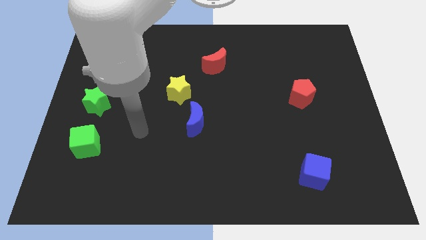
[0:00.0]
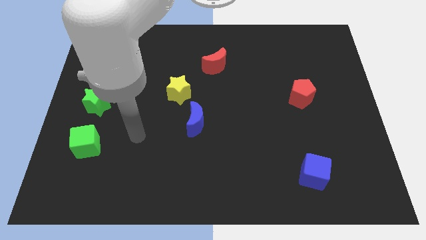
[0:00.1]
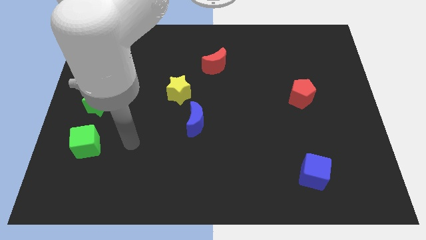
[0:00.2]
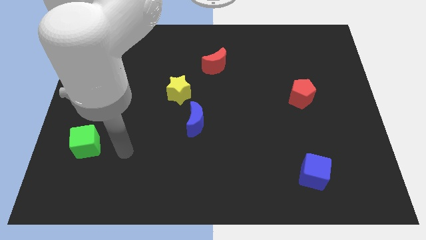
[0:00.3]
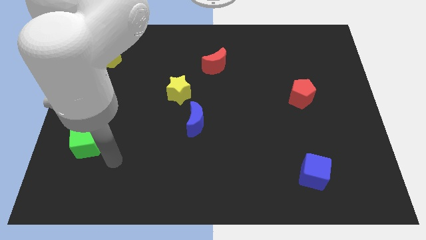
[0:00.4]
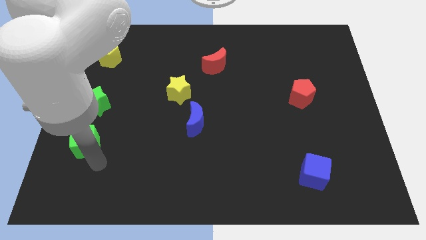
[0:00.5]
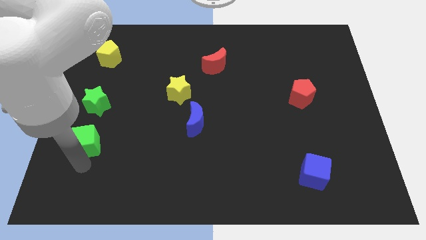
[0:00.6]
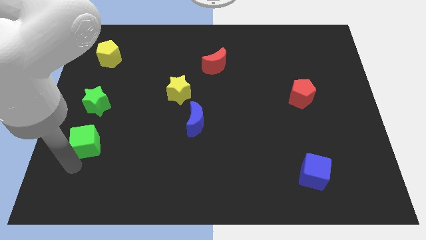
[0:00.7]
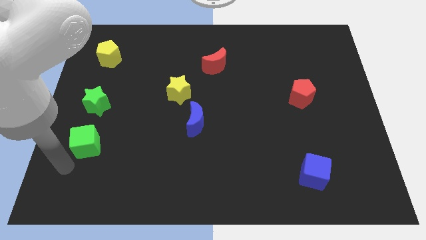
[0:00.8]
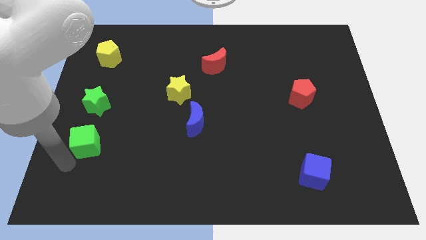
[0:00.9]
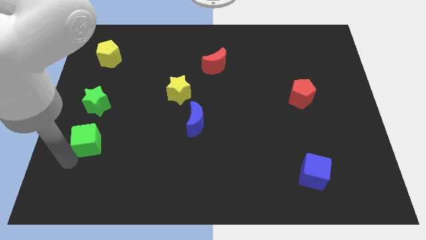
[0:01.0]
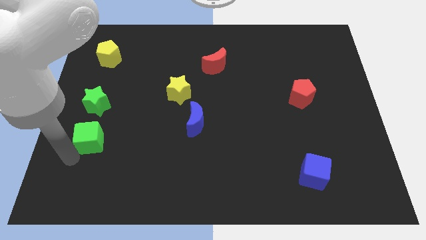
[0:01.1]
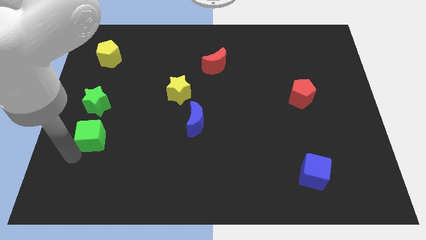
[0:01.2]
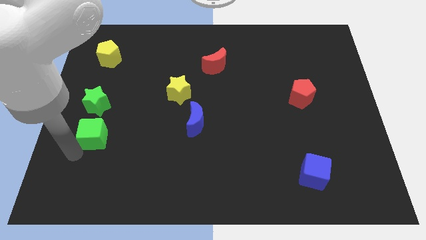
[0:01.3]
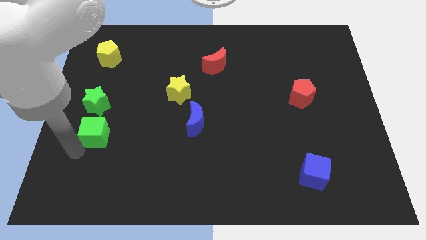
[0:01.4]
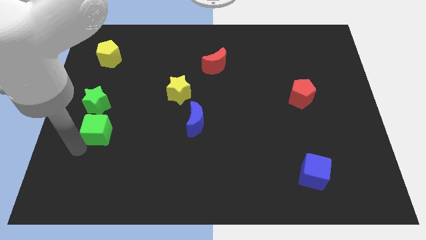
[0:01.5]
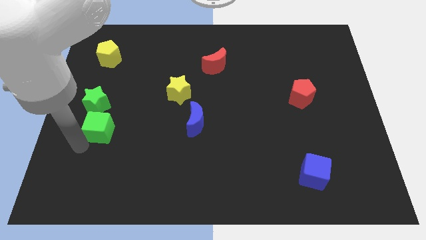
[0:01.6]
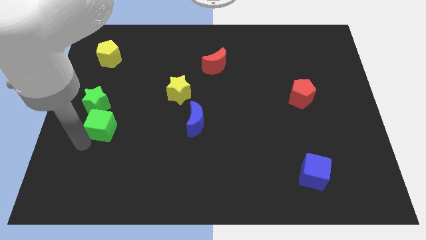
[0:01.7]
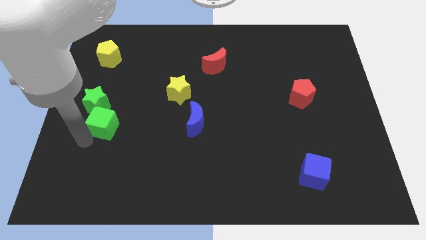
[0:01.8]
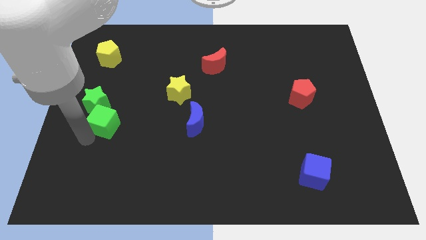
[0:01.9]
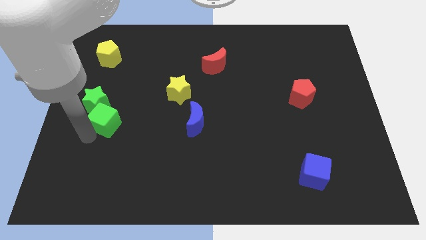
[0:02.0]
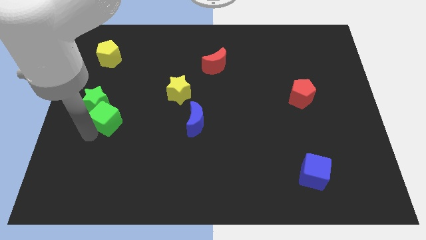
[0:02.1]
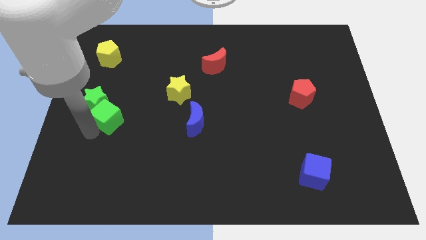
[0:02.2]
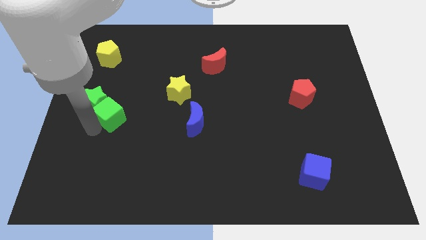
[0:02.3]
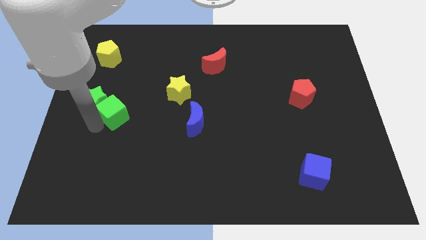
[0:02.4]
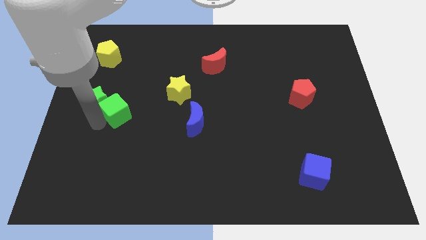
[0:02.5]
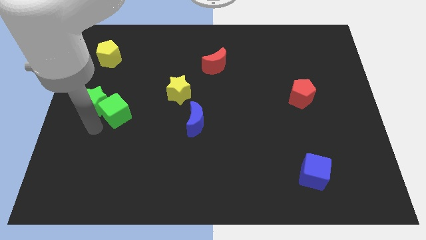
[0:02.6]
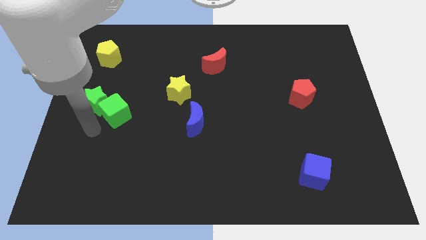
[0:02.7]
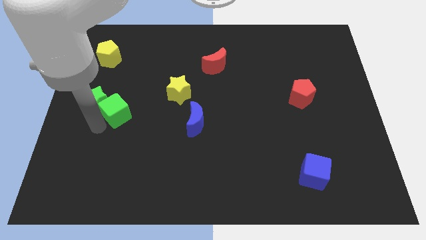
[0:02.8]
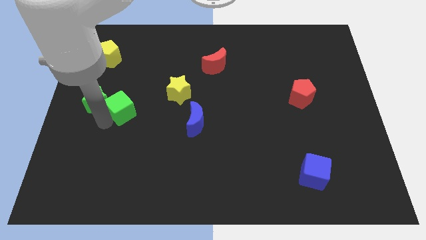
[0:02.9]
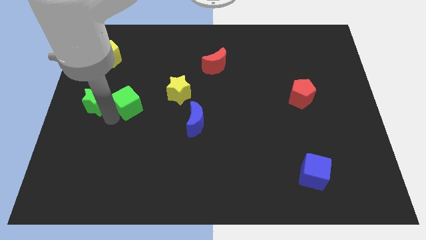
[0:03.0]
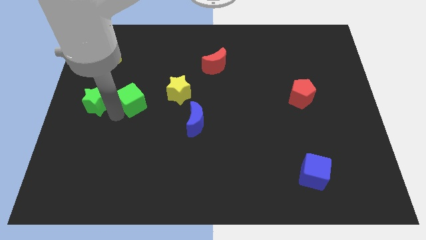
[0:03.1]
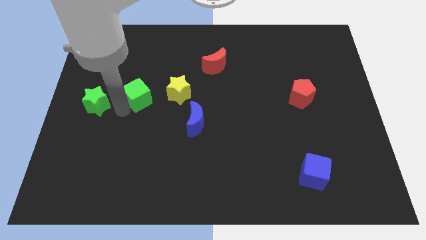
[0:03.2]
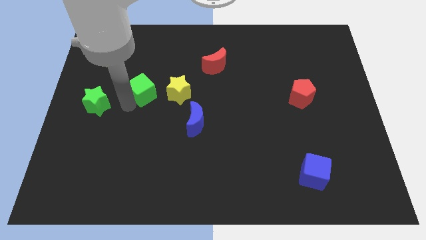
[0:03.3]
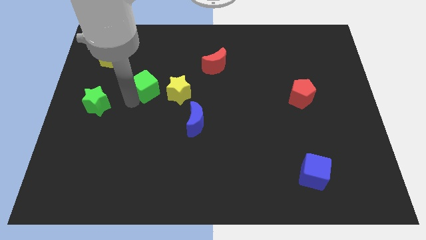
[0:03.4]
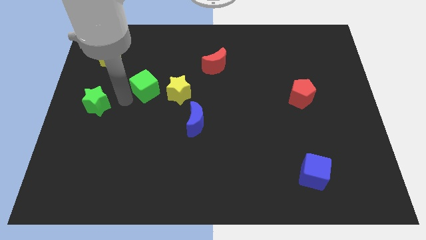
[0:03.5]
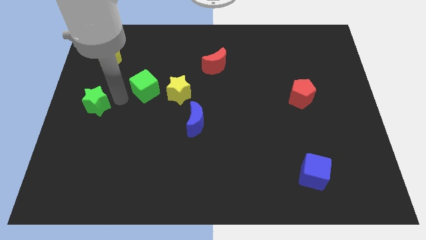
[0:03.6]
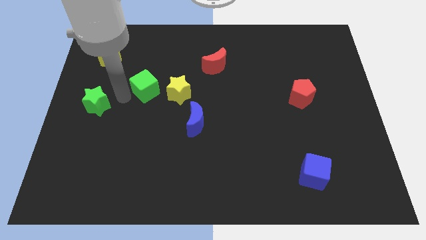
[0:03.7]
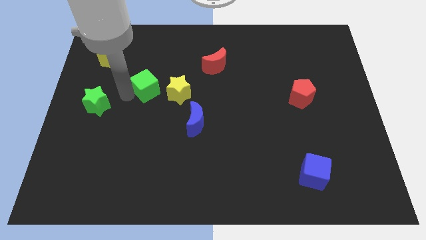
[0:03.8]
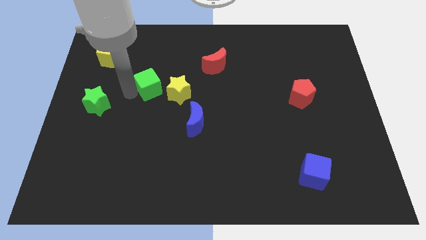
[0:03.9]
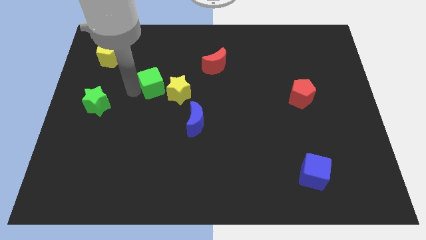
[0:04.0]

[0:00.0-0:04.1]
slide the green cube up and then to the right

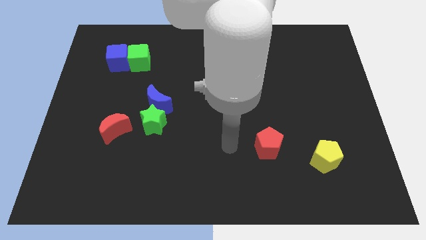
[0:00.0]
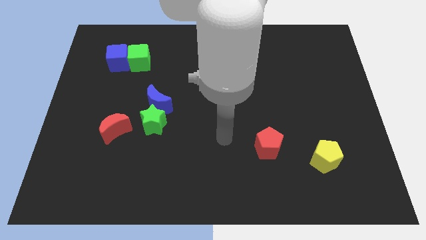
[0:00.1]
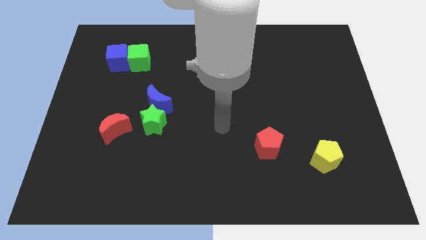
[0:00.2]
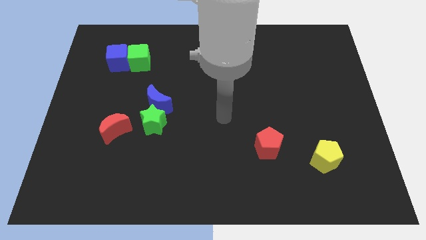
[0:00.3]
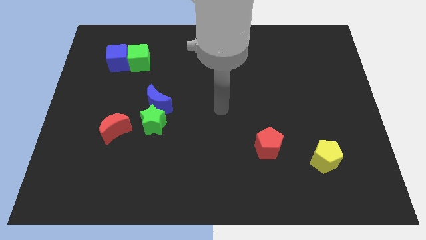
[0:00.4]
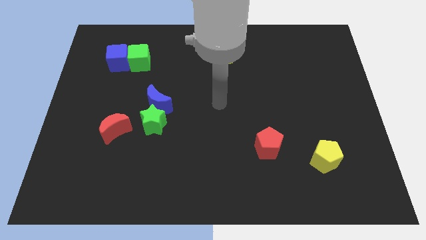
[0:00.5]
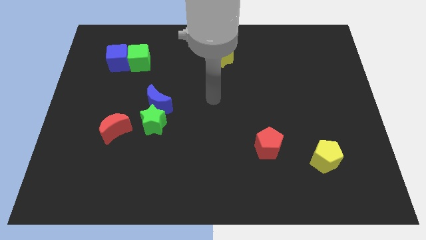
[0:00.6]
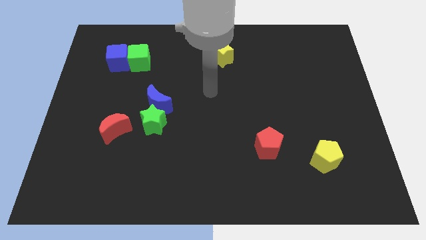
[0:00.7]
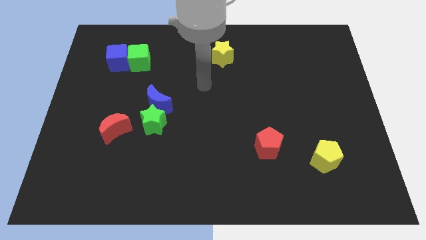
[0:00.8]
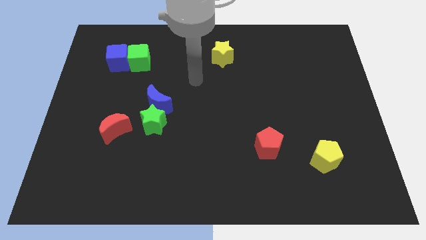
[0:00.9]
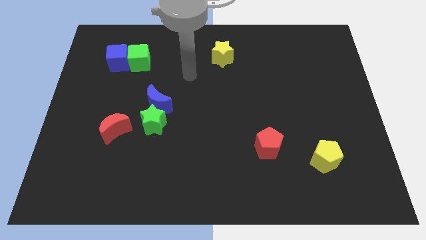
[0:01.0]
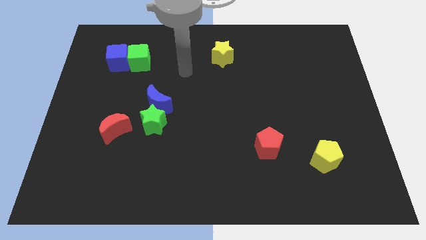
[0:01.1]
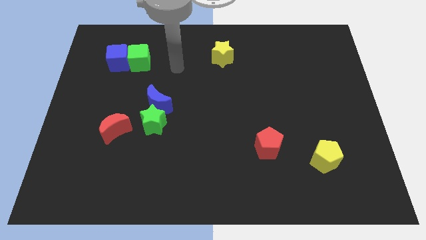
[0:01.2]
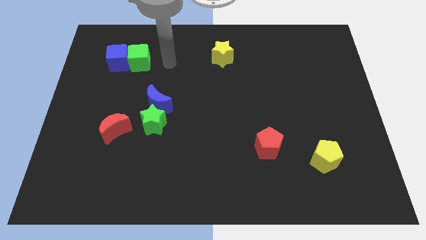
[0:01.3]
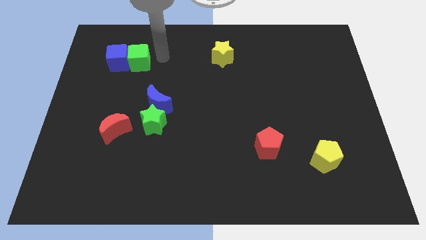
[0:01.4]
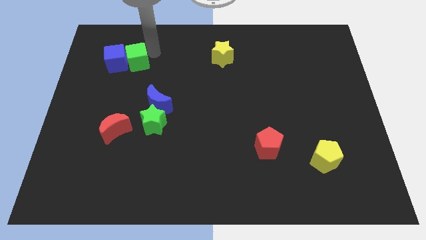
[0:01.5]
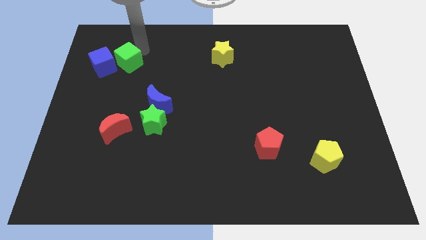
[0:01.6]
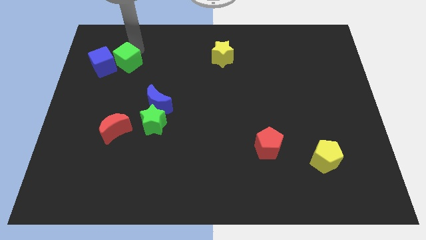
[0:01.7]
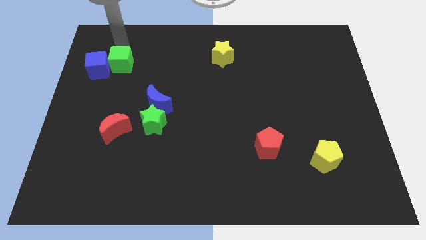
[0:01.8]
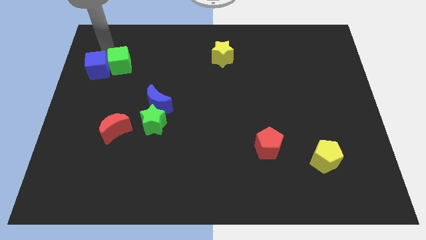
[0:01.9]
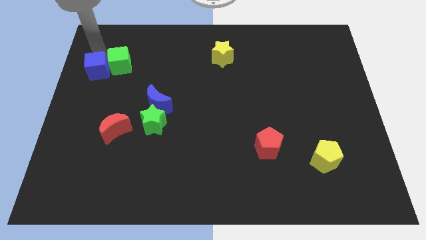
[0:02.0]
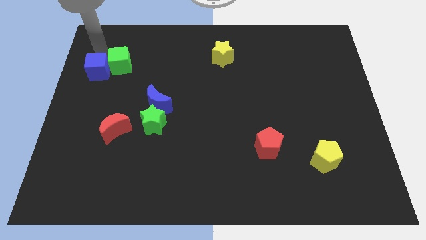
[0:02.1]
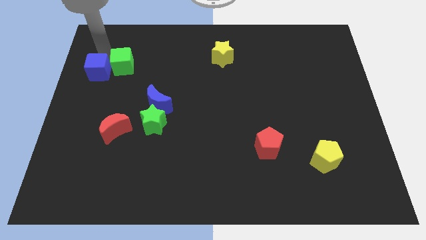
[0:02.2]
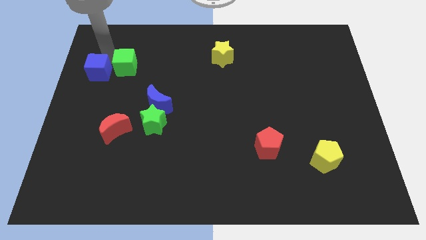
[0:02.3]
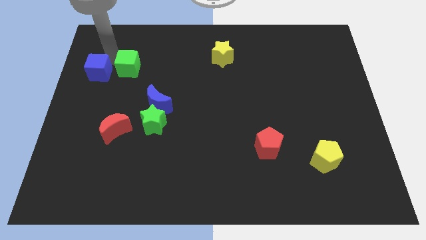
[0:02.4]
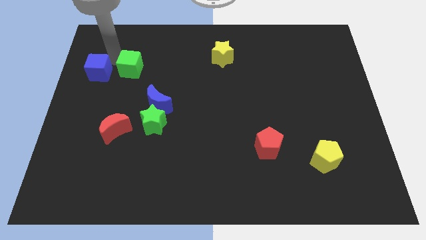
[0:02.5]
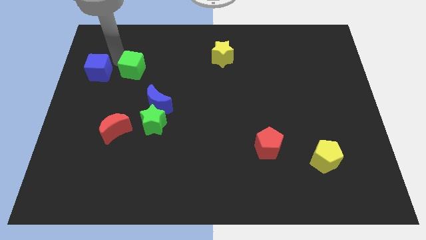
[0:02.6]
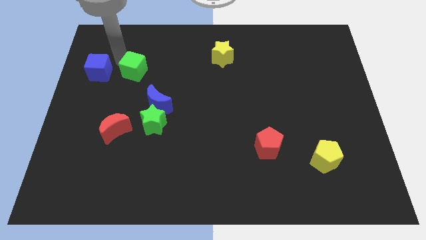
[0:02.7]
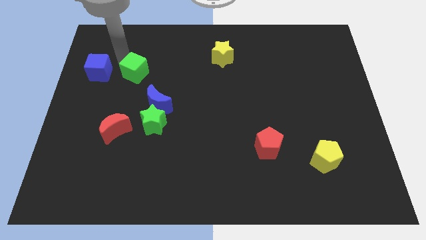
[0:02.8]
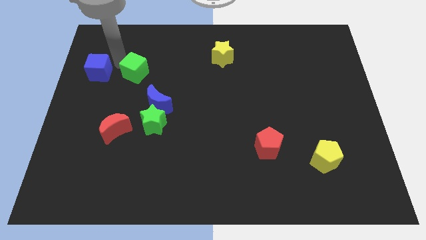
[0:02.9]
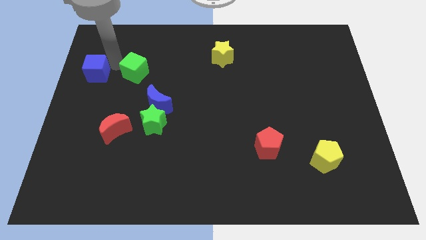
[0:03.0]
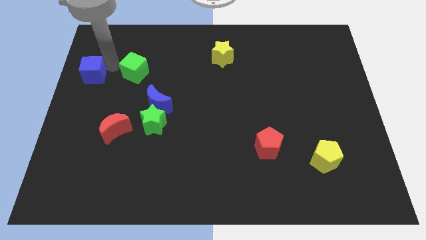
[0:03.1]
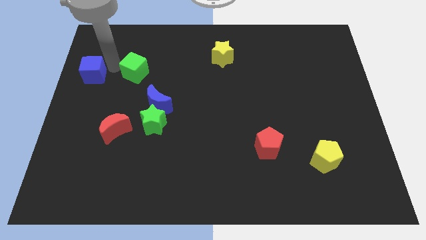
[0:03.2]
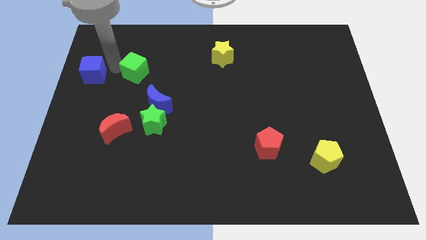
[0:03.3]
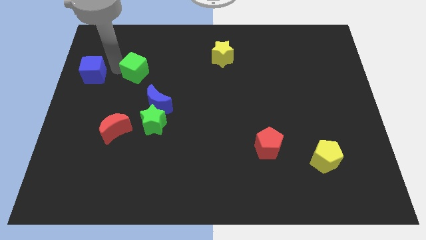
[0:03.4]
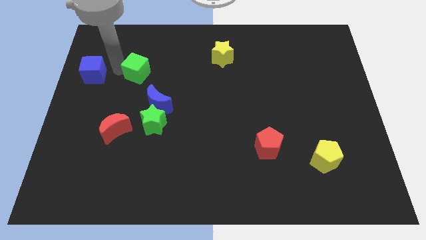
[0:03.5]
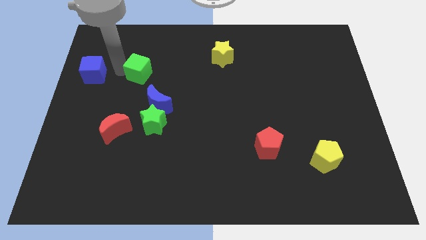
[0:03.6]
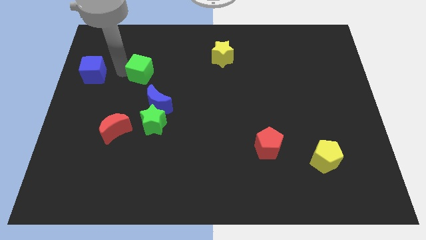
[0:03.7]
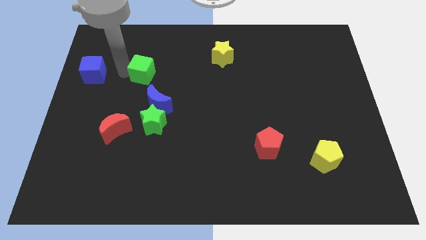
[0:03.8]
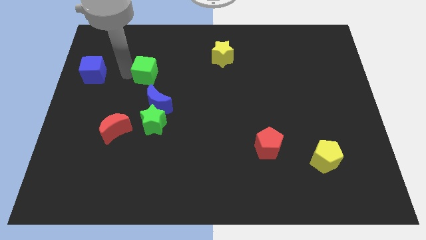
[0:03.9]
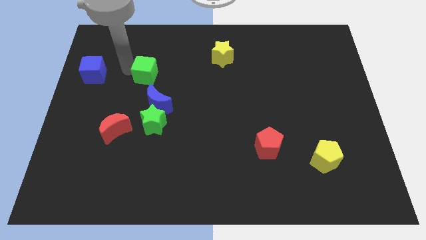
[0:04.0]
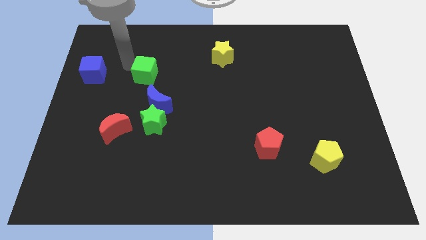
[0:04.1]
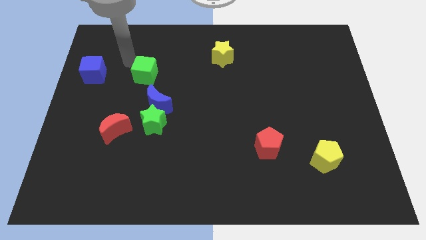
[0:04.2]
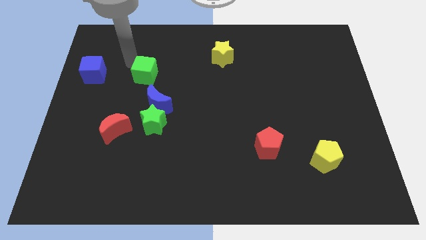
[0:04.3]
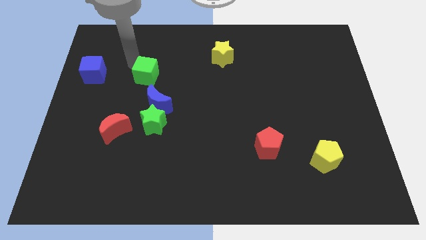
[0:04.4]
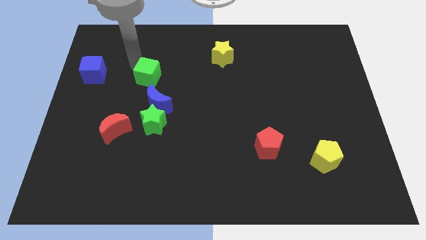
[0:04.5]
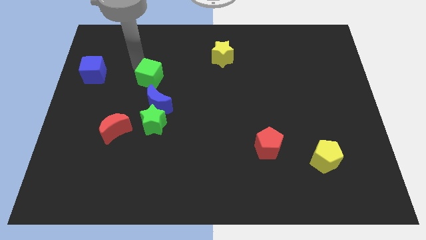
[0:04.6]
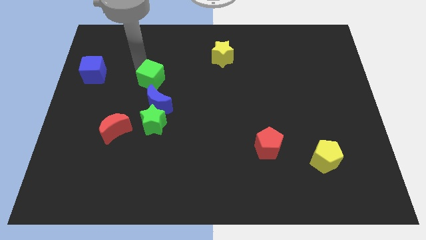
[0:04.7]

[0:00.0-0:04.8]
move the green cube a little diagonally down and right
